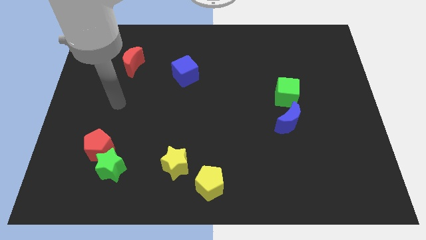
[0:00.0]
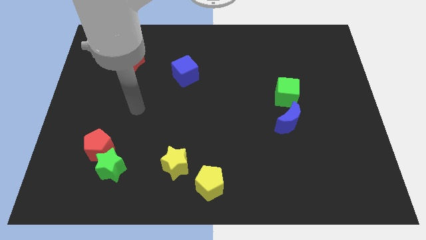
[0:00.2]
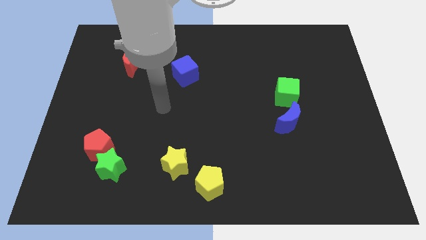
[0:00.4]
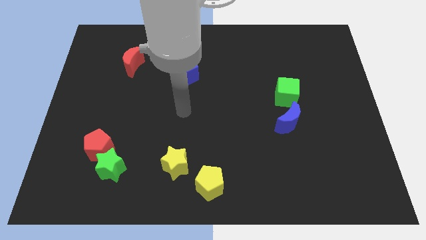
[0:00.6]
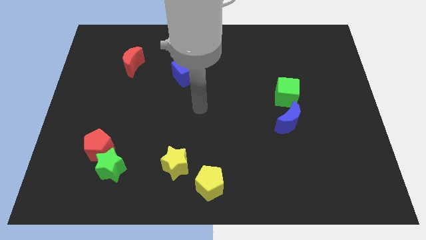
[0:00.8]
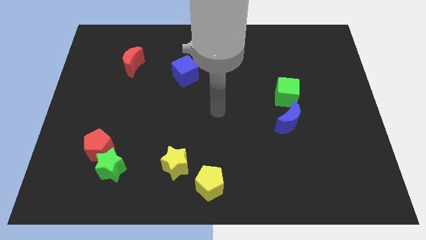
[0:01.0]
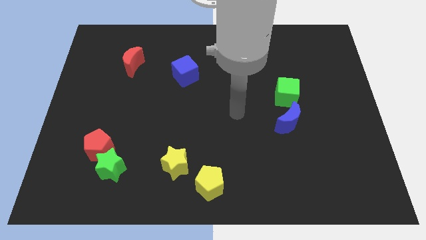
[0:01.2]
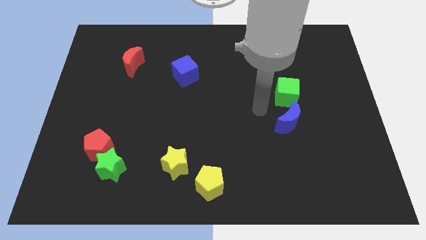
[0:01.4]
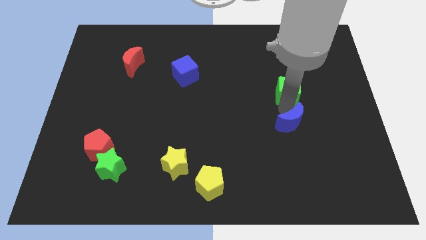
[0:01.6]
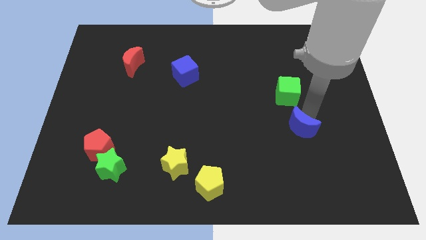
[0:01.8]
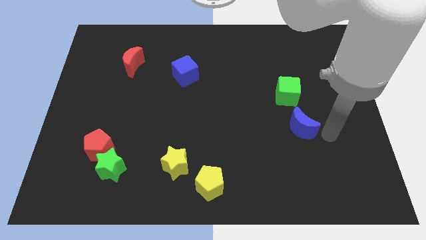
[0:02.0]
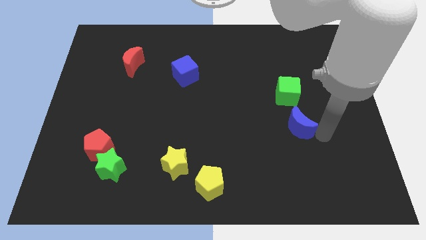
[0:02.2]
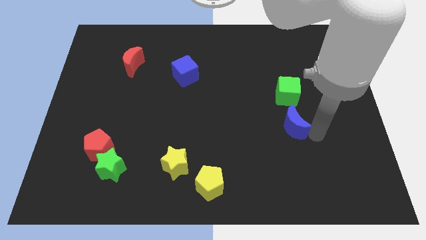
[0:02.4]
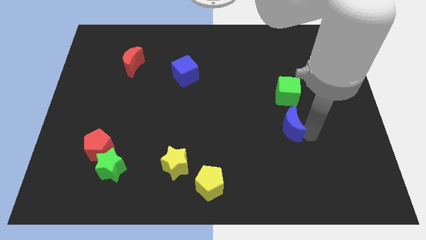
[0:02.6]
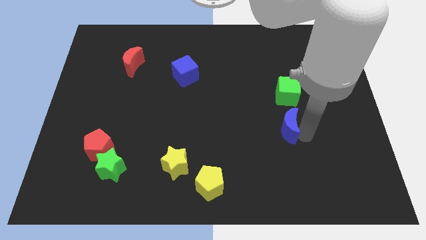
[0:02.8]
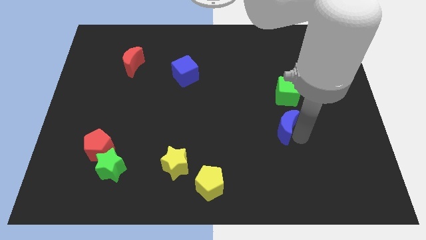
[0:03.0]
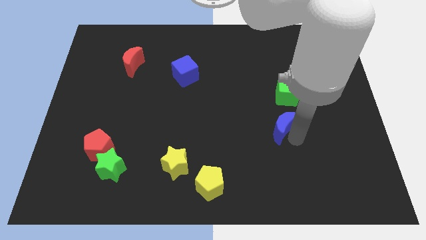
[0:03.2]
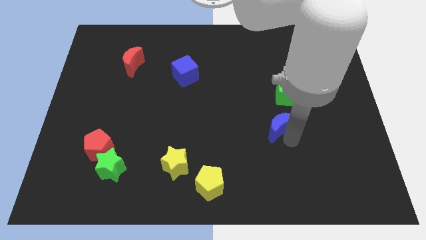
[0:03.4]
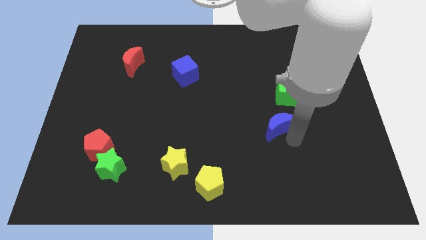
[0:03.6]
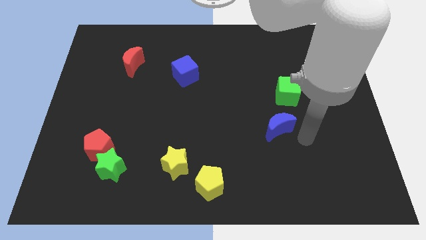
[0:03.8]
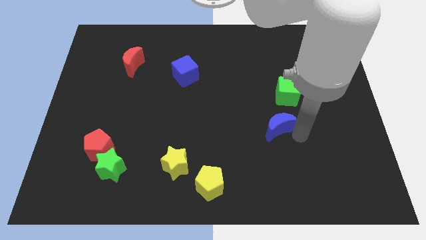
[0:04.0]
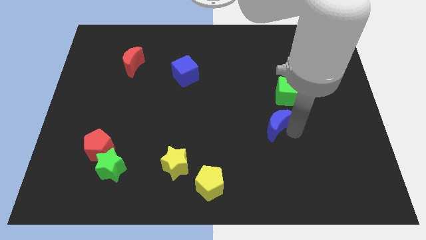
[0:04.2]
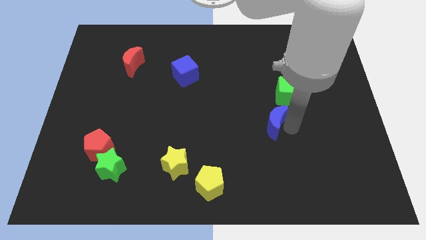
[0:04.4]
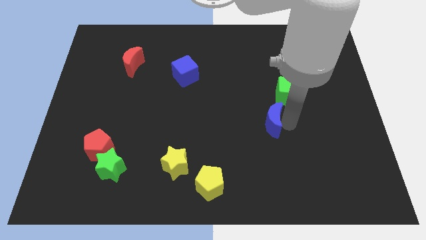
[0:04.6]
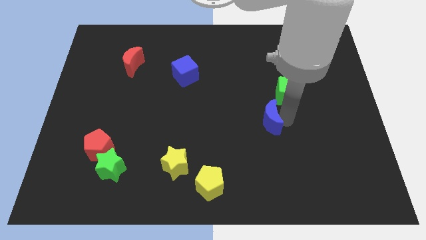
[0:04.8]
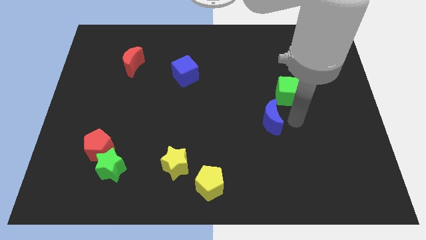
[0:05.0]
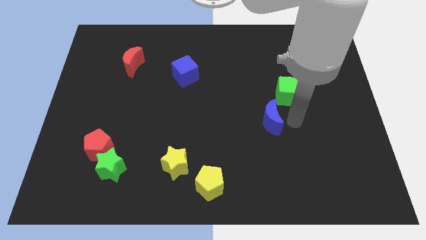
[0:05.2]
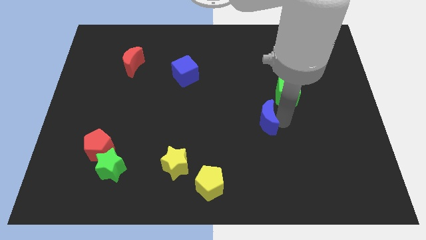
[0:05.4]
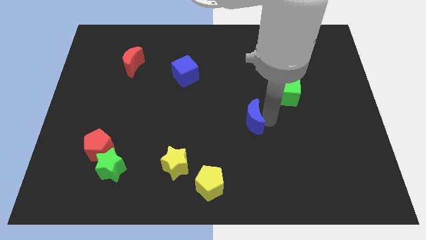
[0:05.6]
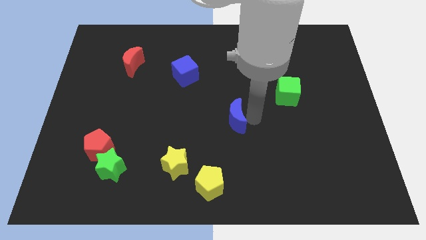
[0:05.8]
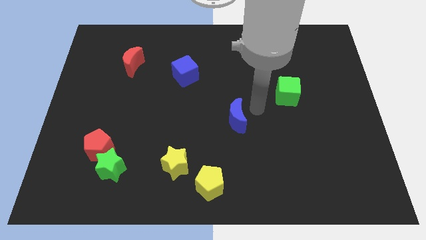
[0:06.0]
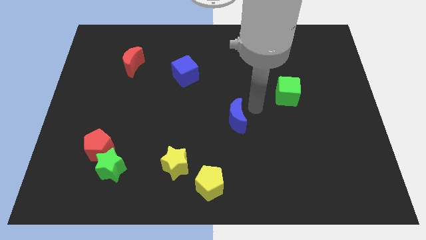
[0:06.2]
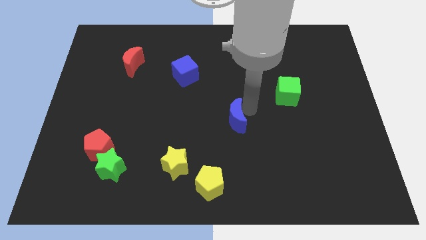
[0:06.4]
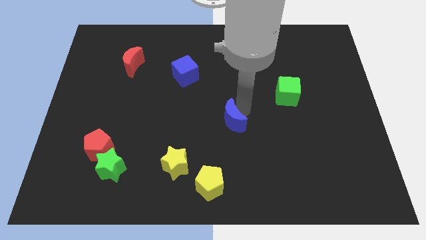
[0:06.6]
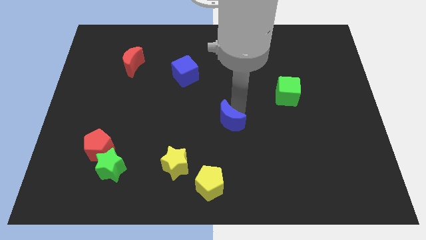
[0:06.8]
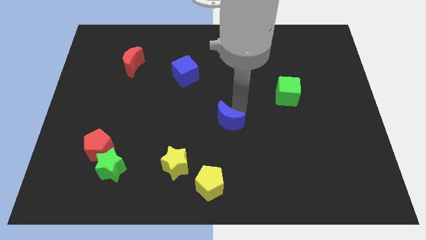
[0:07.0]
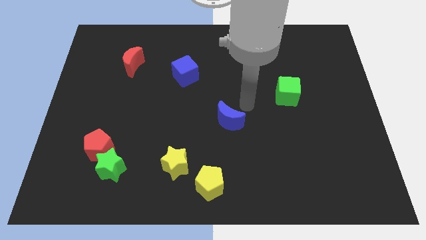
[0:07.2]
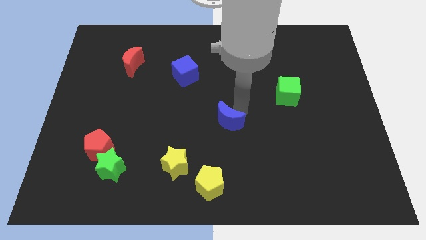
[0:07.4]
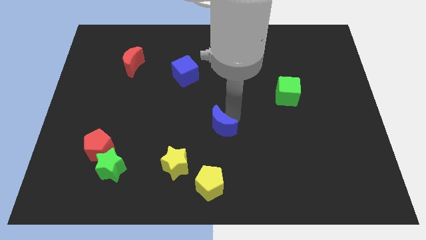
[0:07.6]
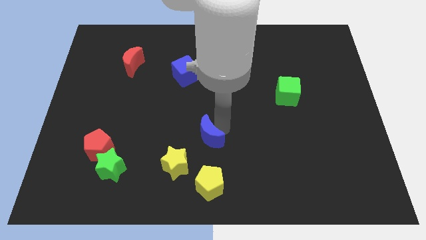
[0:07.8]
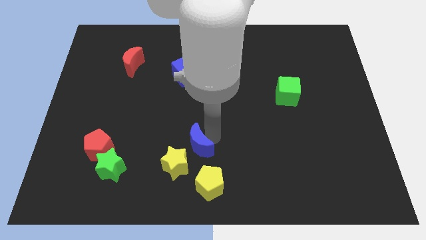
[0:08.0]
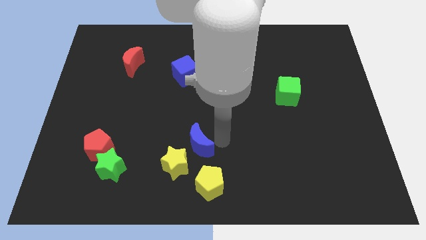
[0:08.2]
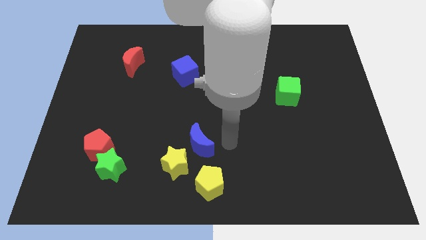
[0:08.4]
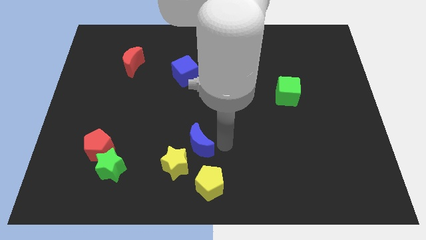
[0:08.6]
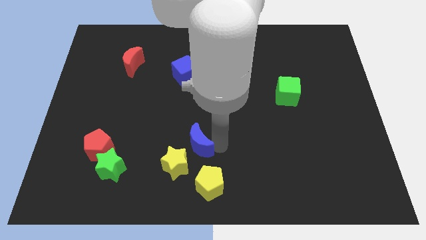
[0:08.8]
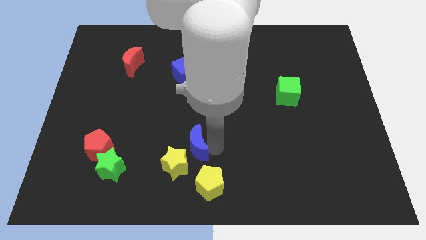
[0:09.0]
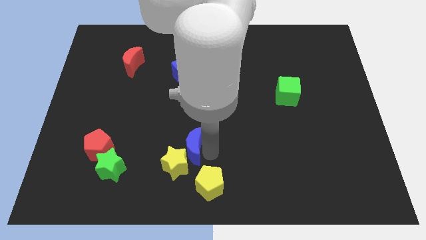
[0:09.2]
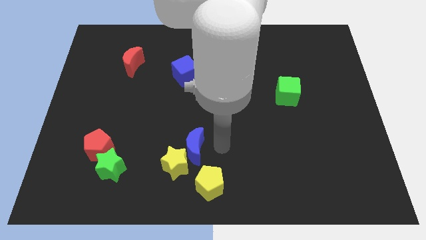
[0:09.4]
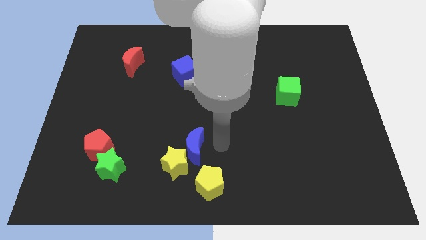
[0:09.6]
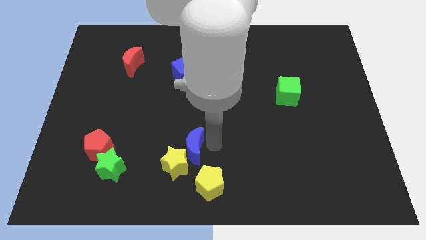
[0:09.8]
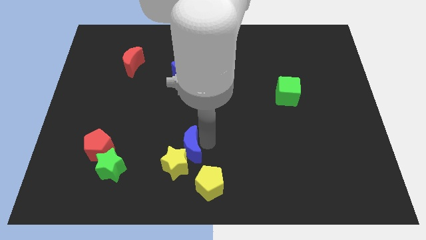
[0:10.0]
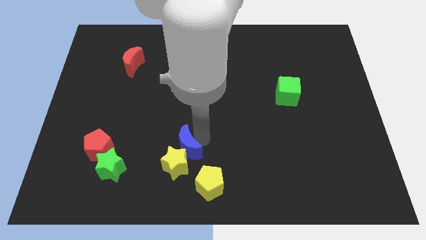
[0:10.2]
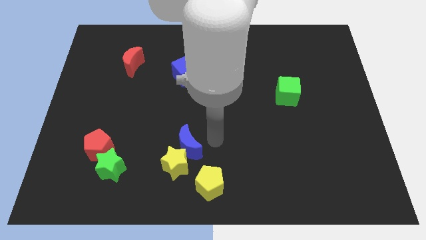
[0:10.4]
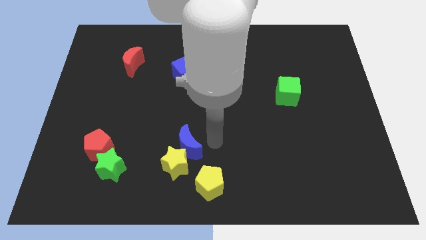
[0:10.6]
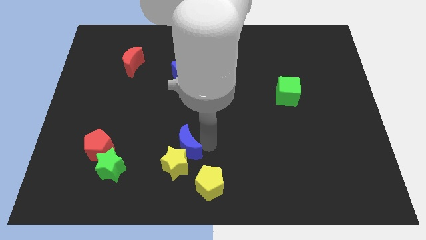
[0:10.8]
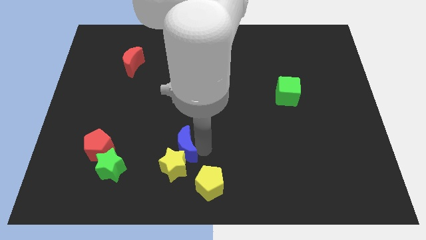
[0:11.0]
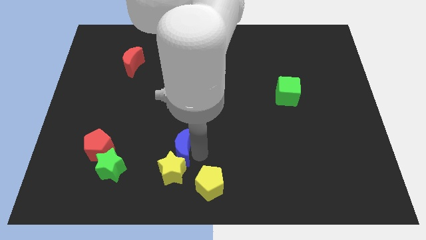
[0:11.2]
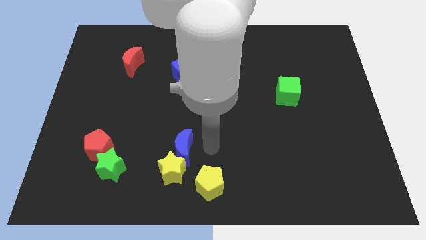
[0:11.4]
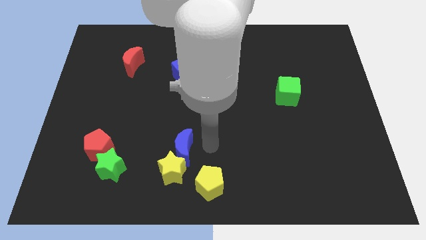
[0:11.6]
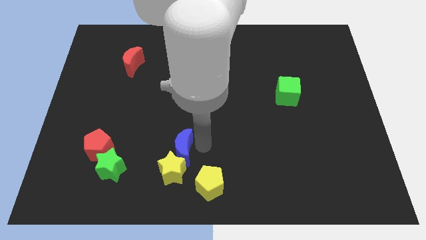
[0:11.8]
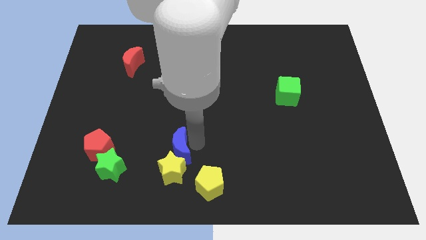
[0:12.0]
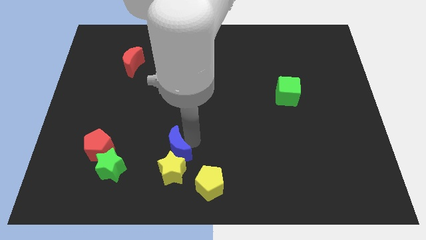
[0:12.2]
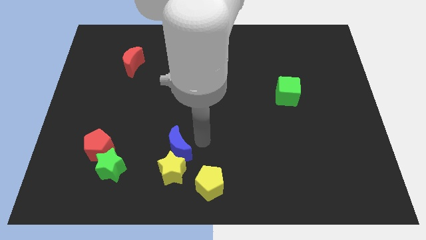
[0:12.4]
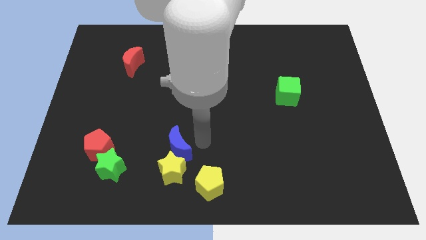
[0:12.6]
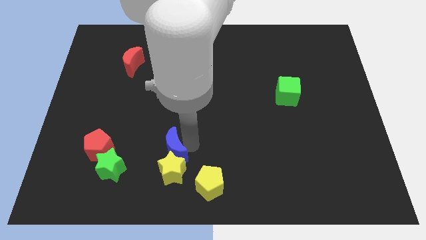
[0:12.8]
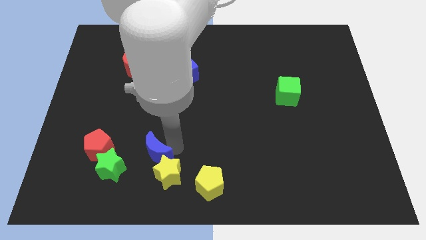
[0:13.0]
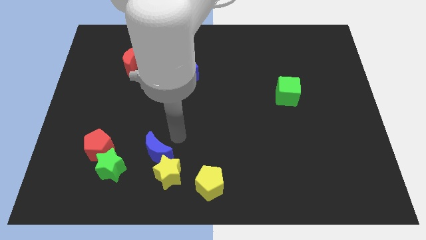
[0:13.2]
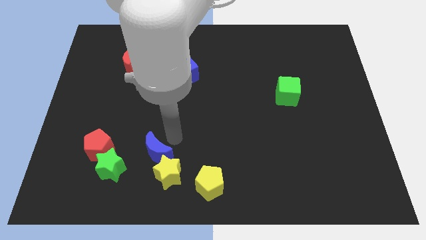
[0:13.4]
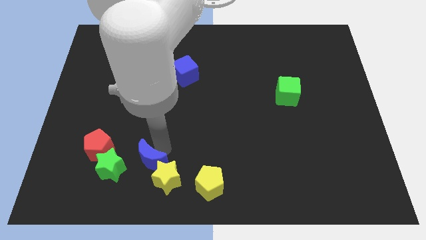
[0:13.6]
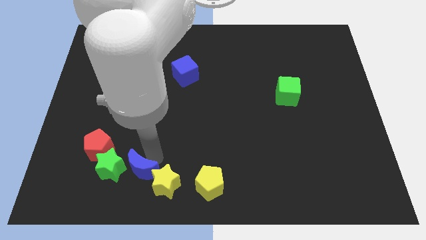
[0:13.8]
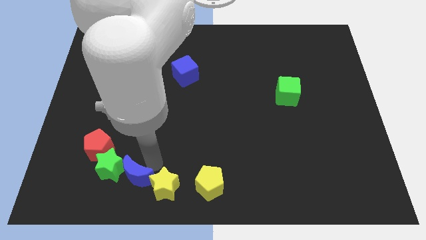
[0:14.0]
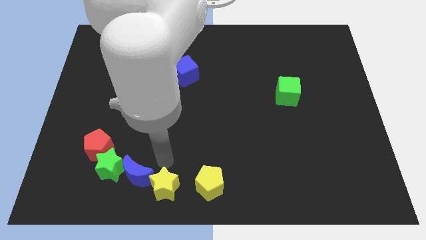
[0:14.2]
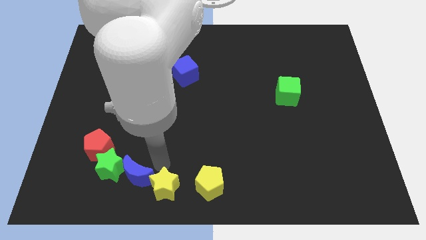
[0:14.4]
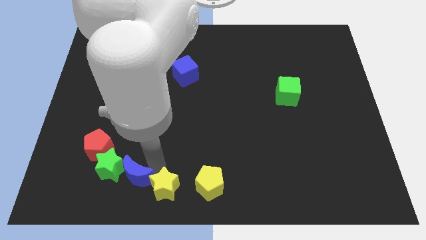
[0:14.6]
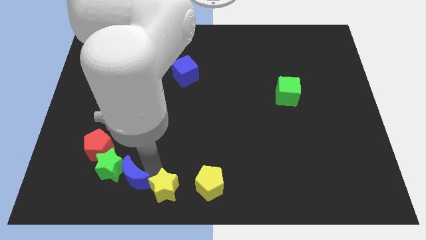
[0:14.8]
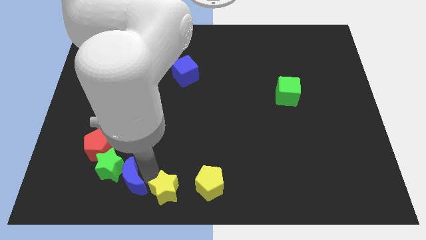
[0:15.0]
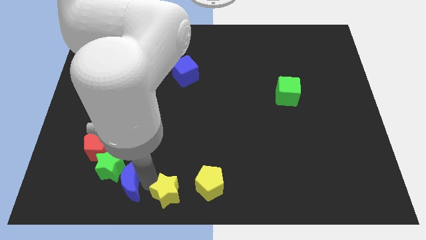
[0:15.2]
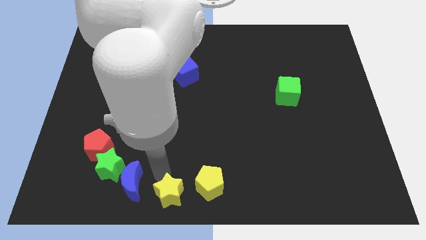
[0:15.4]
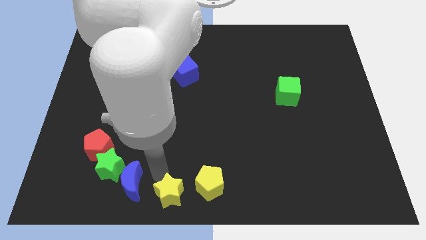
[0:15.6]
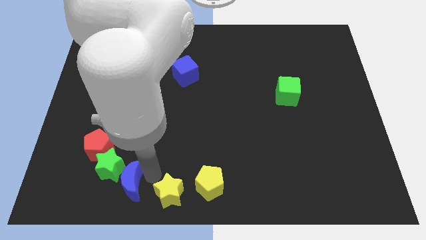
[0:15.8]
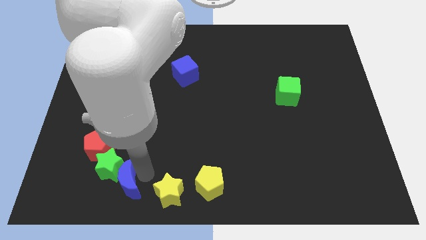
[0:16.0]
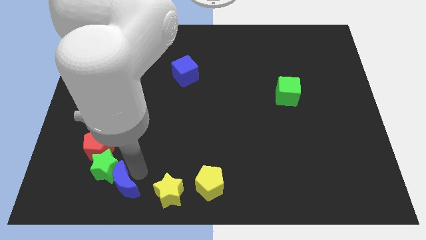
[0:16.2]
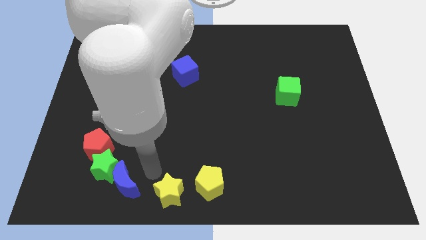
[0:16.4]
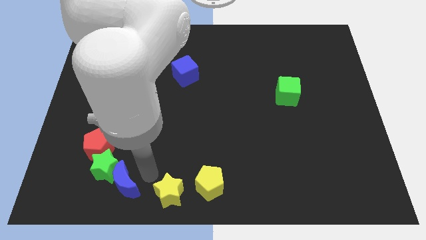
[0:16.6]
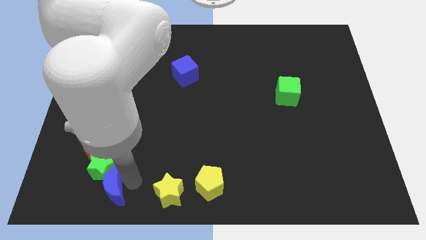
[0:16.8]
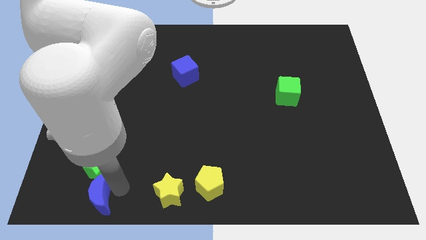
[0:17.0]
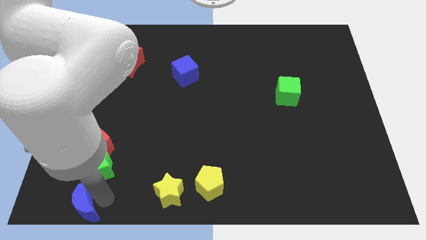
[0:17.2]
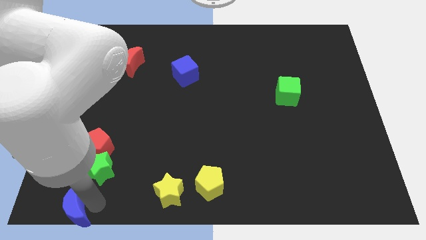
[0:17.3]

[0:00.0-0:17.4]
push the blue moon to the bottom left corner
